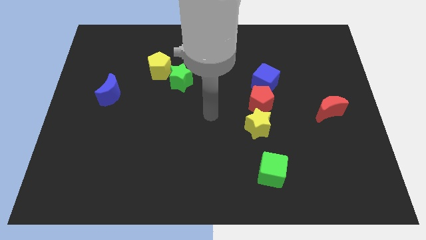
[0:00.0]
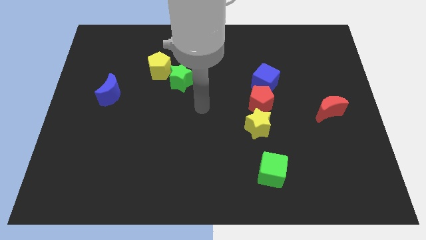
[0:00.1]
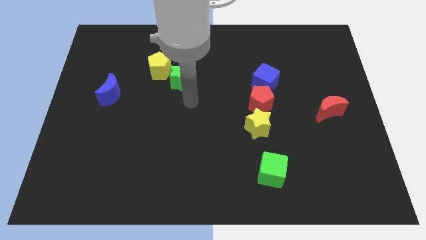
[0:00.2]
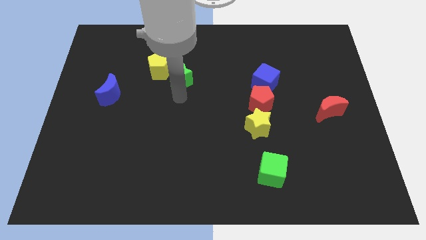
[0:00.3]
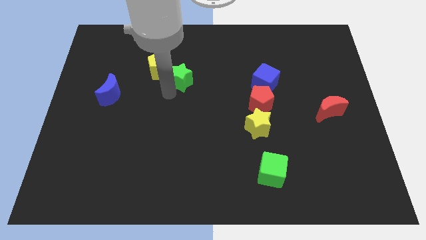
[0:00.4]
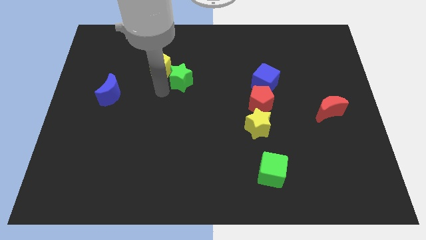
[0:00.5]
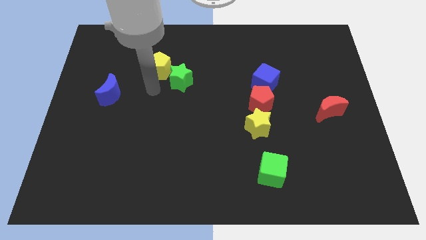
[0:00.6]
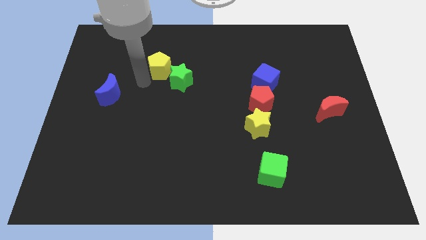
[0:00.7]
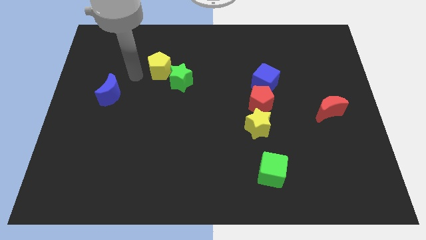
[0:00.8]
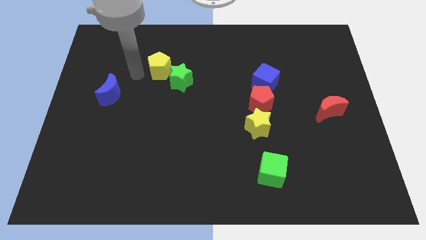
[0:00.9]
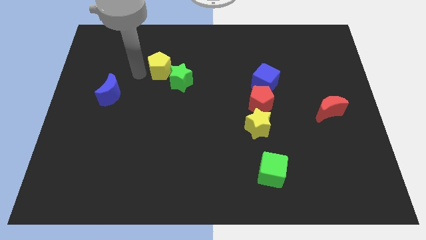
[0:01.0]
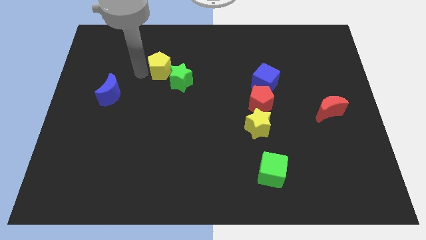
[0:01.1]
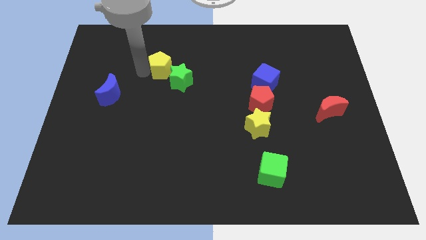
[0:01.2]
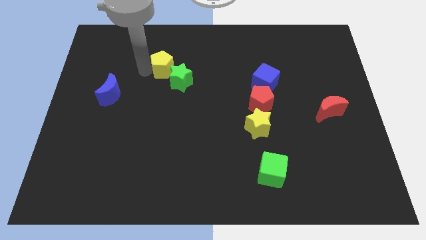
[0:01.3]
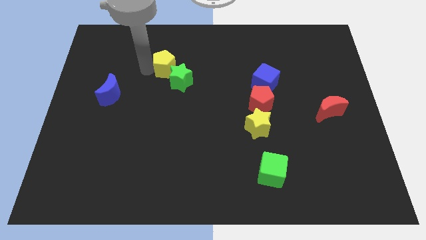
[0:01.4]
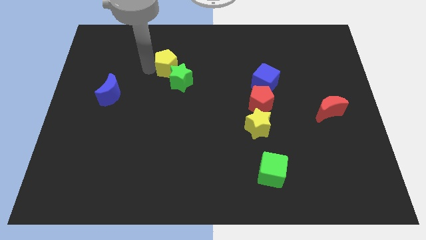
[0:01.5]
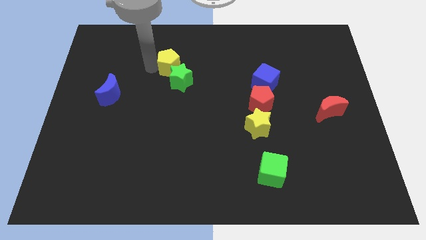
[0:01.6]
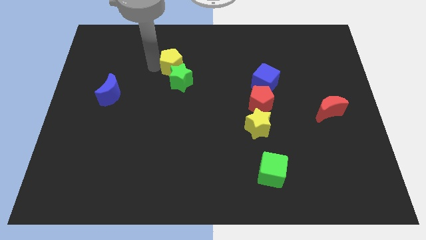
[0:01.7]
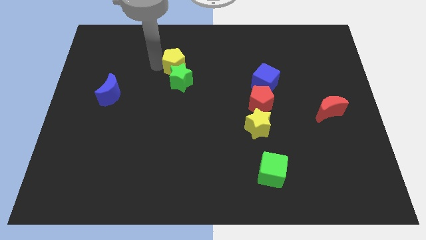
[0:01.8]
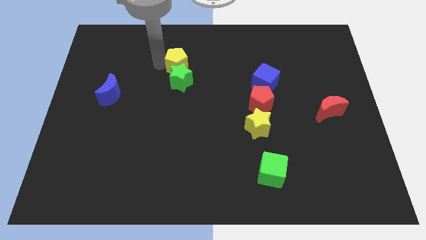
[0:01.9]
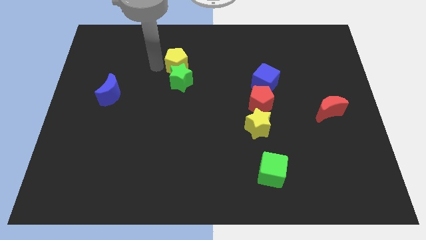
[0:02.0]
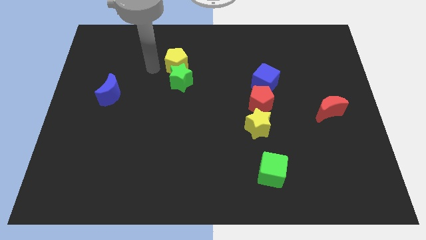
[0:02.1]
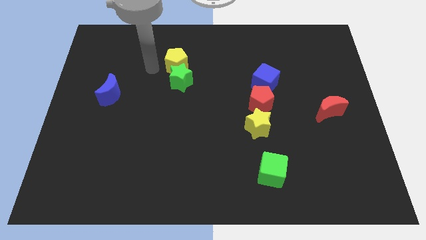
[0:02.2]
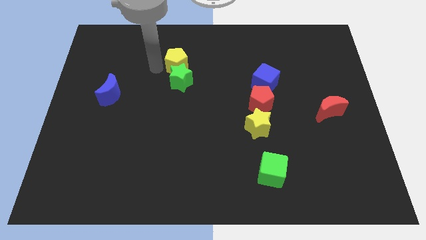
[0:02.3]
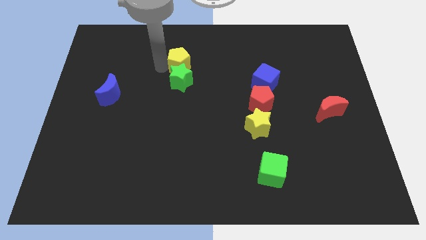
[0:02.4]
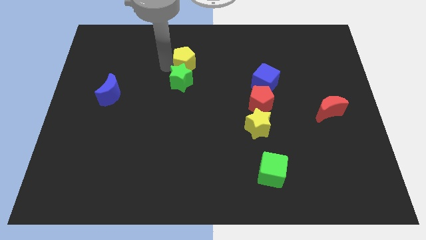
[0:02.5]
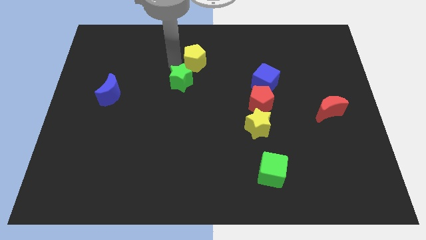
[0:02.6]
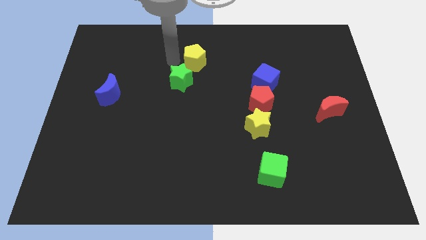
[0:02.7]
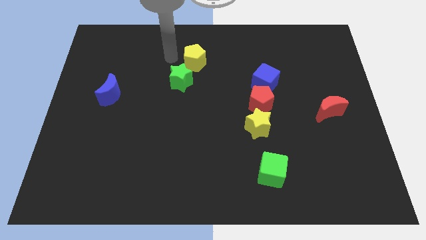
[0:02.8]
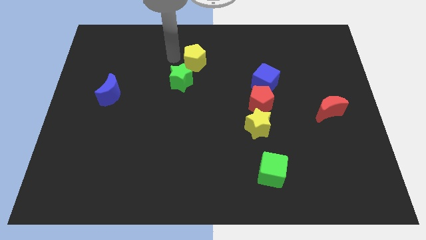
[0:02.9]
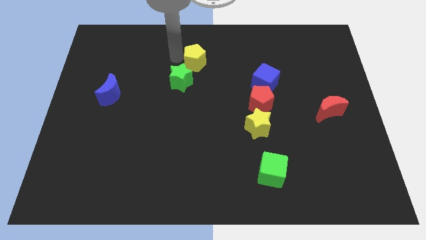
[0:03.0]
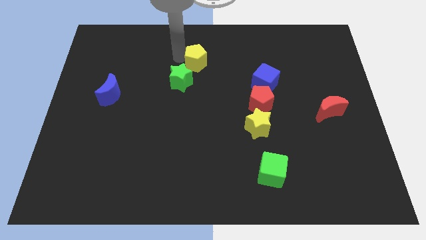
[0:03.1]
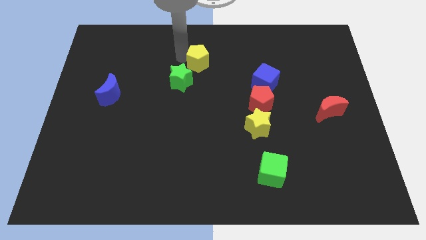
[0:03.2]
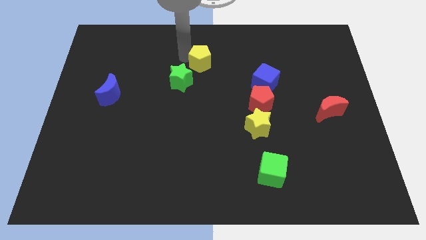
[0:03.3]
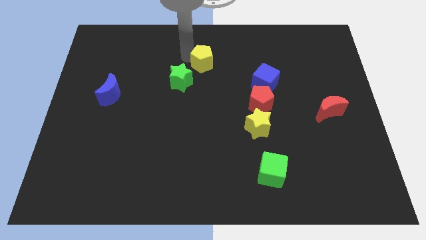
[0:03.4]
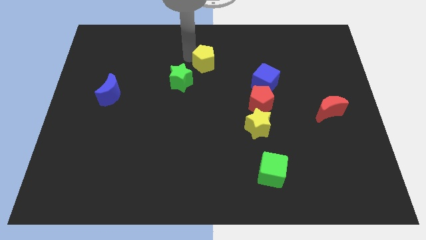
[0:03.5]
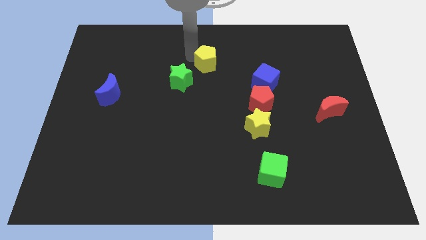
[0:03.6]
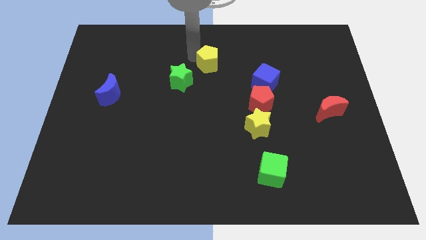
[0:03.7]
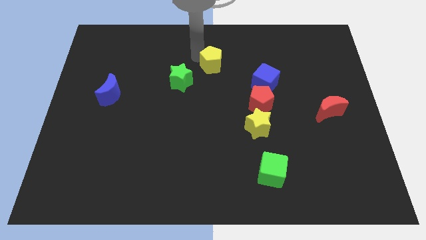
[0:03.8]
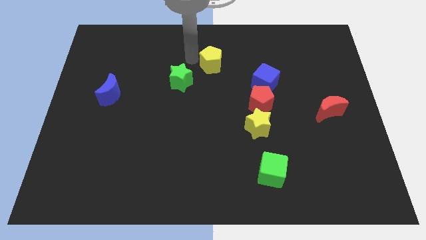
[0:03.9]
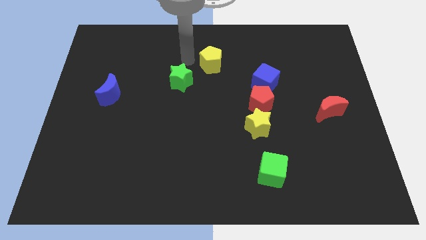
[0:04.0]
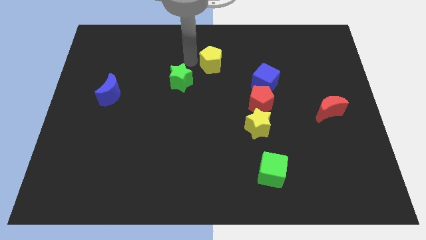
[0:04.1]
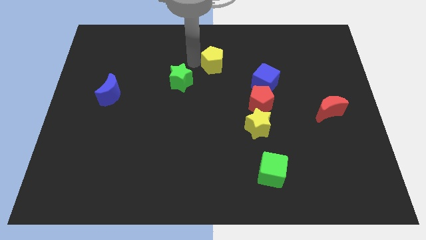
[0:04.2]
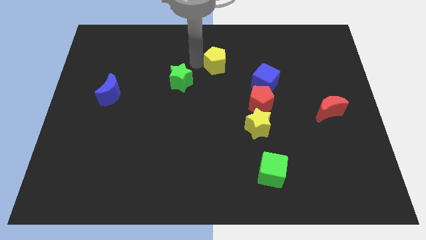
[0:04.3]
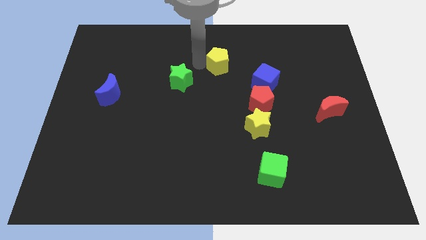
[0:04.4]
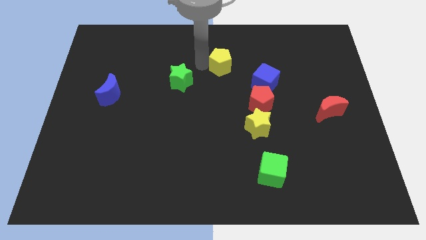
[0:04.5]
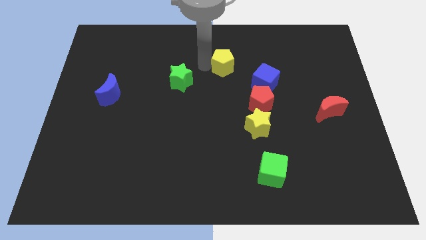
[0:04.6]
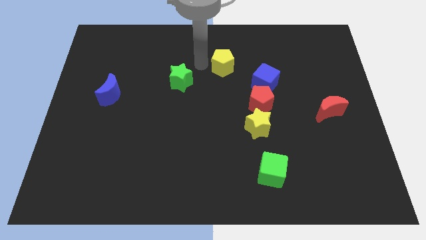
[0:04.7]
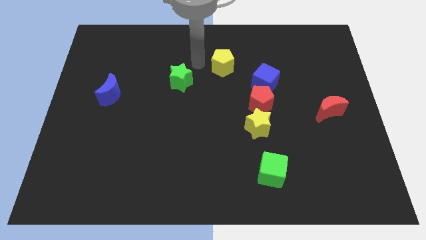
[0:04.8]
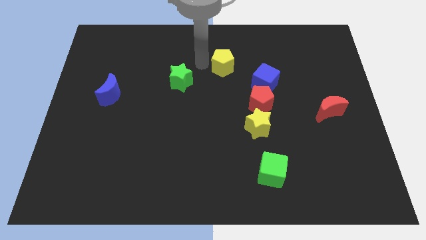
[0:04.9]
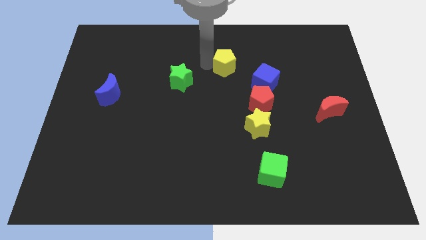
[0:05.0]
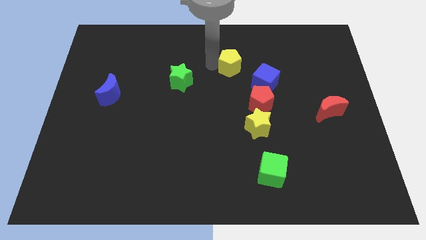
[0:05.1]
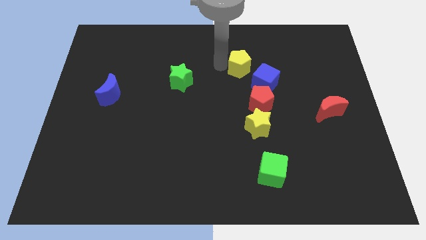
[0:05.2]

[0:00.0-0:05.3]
slide the yellow pentagon to the right

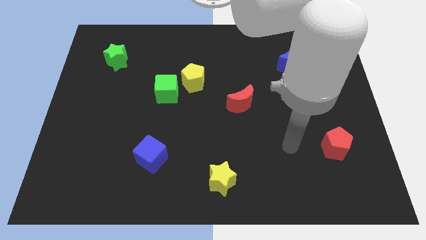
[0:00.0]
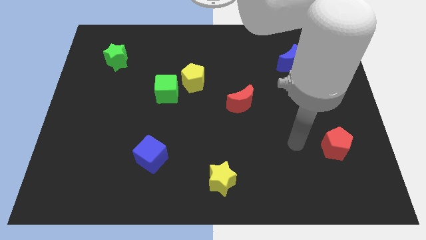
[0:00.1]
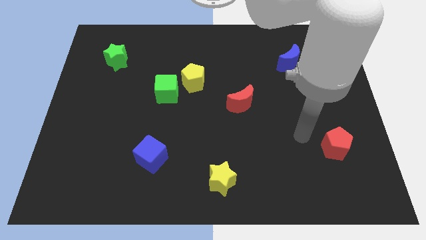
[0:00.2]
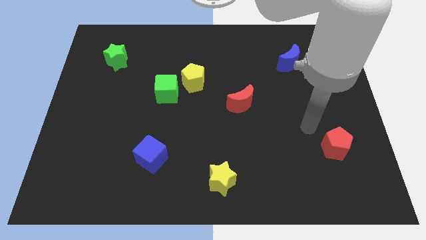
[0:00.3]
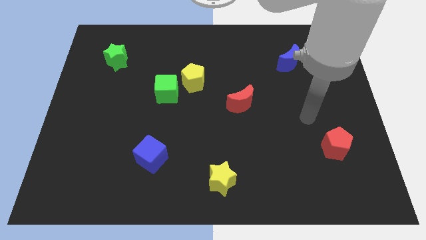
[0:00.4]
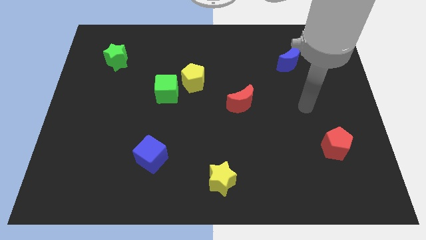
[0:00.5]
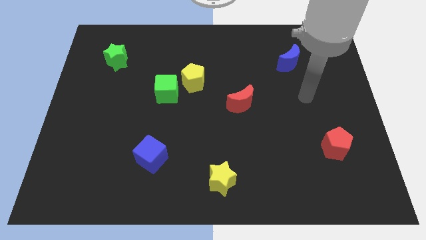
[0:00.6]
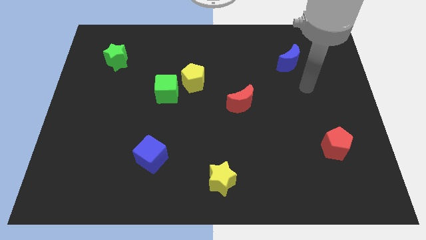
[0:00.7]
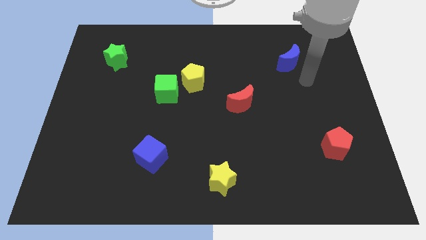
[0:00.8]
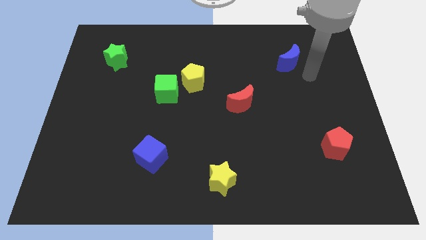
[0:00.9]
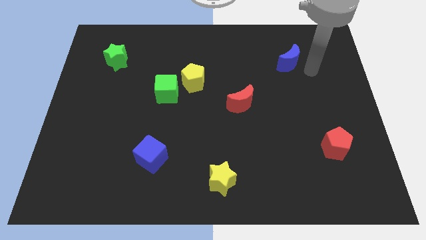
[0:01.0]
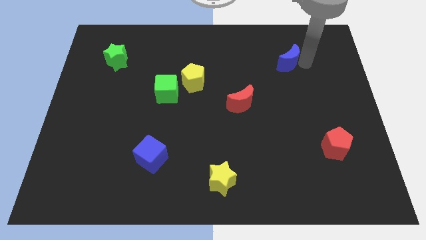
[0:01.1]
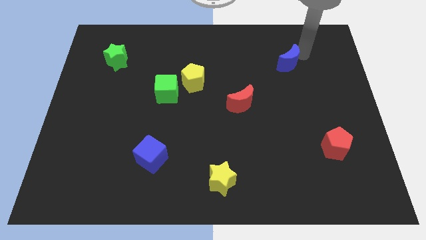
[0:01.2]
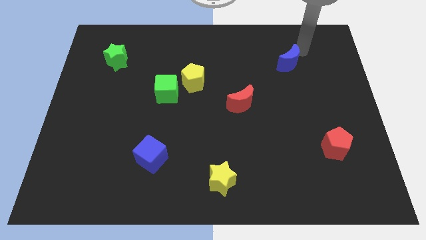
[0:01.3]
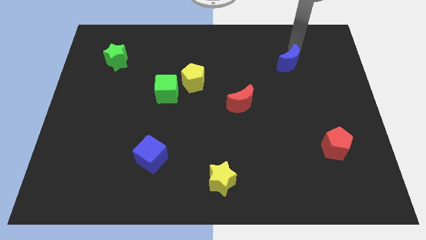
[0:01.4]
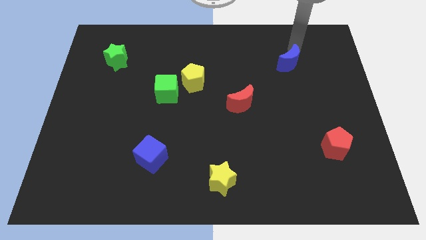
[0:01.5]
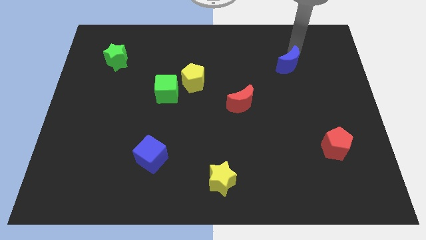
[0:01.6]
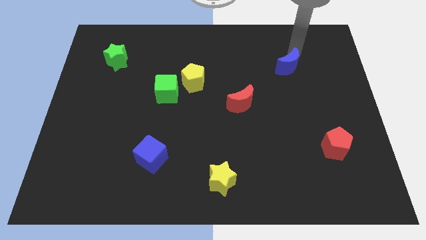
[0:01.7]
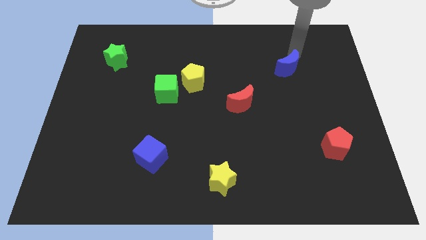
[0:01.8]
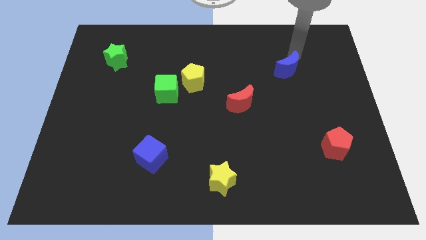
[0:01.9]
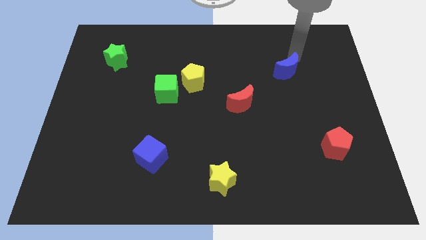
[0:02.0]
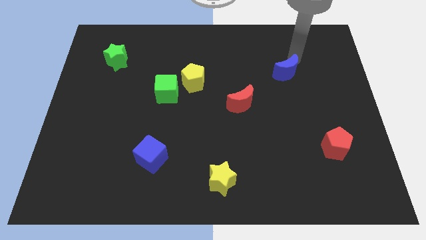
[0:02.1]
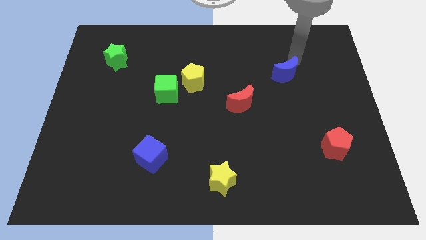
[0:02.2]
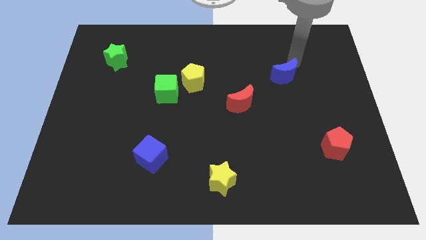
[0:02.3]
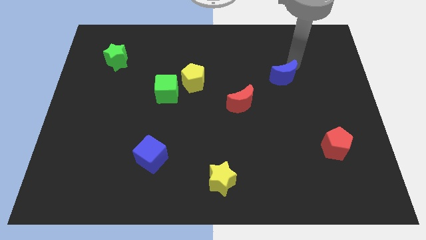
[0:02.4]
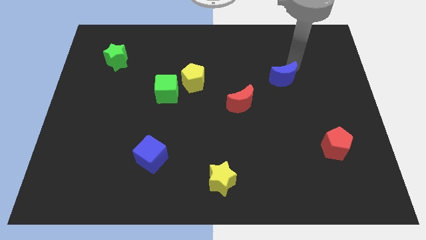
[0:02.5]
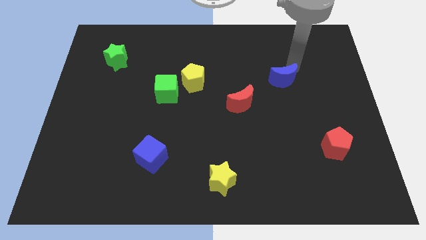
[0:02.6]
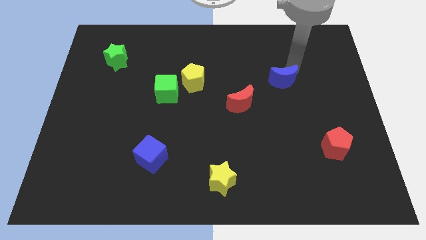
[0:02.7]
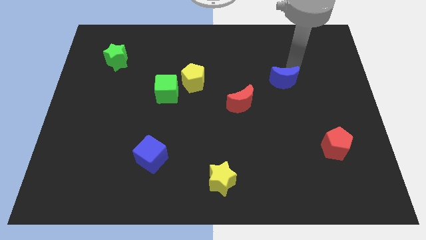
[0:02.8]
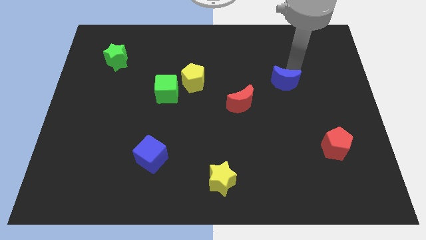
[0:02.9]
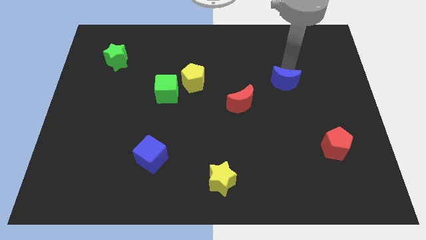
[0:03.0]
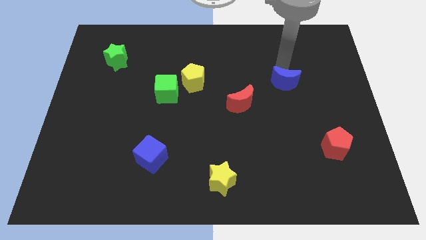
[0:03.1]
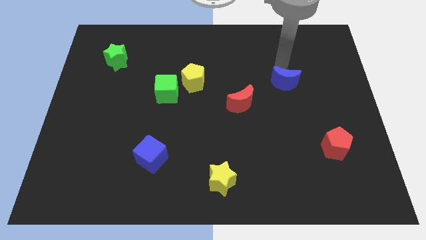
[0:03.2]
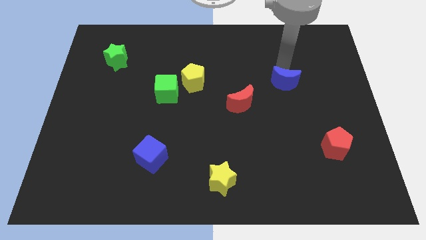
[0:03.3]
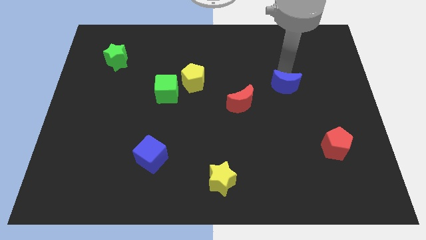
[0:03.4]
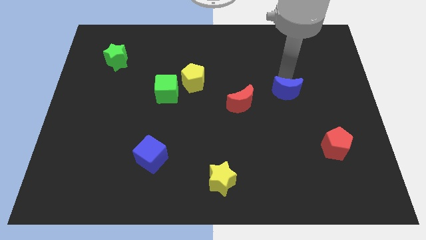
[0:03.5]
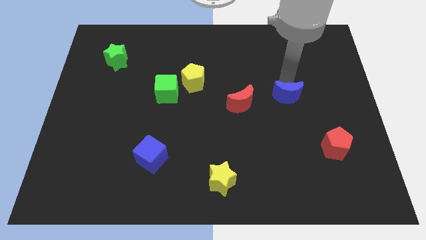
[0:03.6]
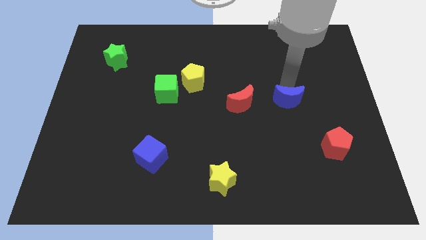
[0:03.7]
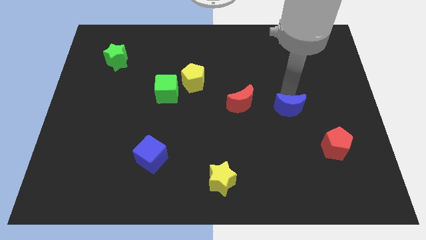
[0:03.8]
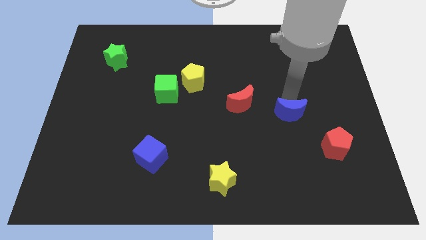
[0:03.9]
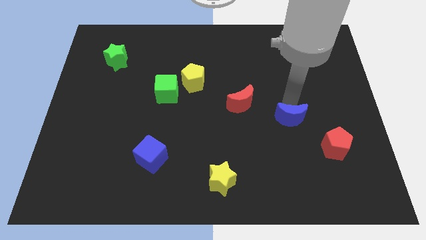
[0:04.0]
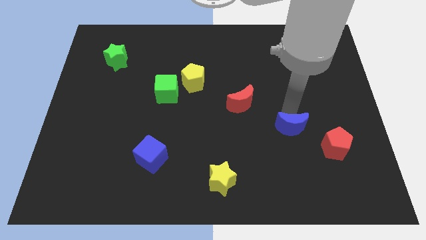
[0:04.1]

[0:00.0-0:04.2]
slide the blue moon down
